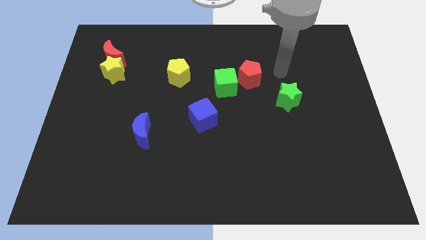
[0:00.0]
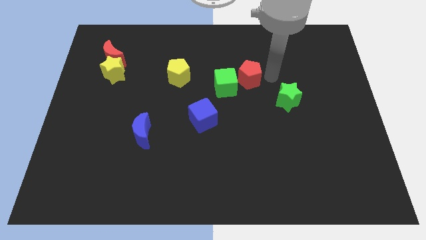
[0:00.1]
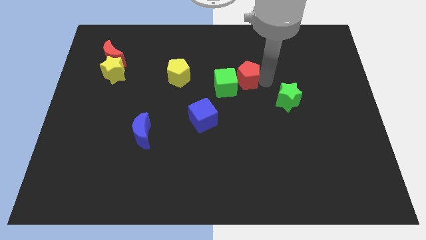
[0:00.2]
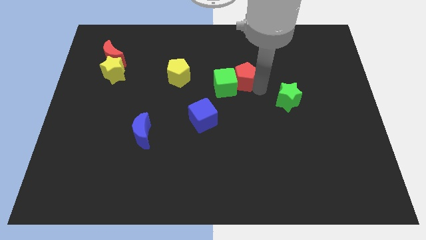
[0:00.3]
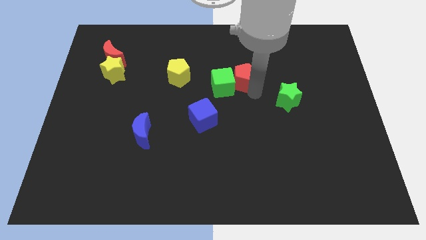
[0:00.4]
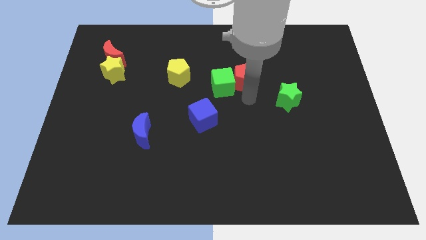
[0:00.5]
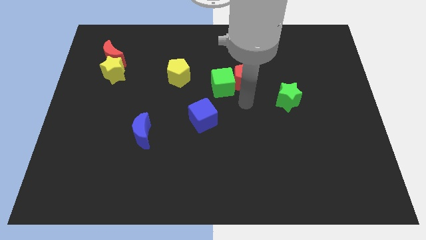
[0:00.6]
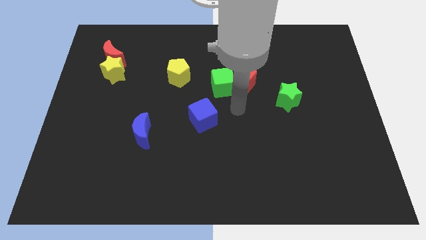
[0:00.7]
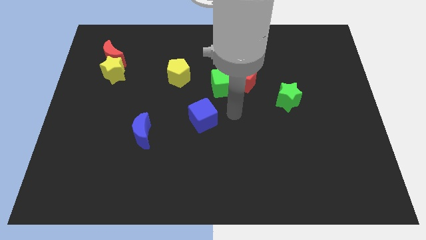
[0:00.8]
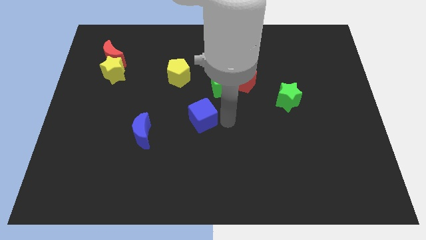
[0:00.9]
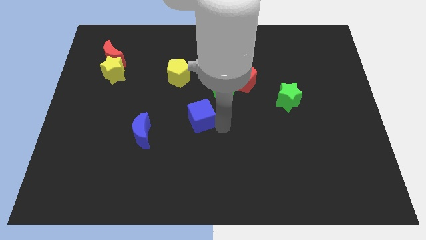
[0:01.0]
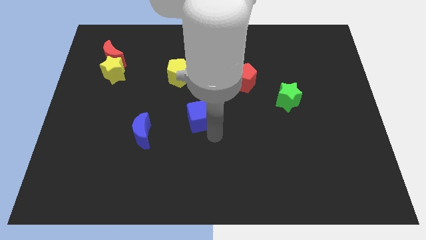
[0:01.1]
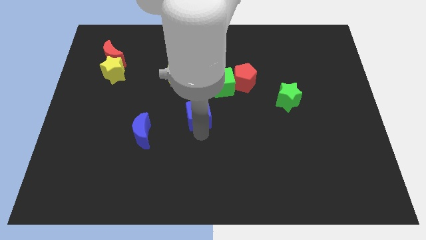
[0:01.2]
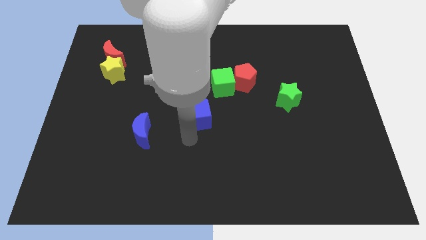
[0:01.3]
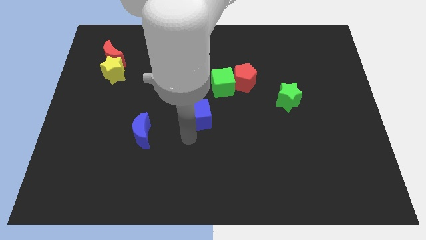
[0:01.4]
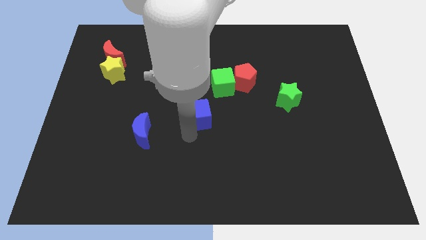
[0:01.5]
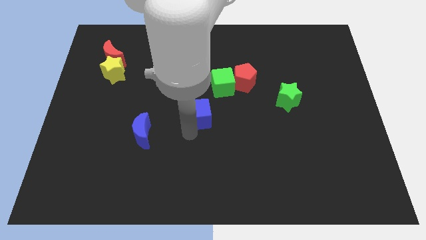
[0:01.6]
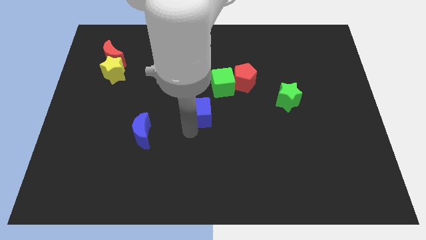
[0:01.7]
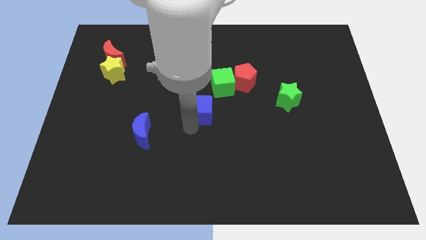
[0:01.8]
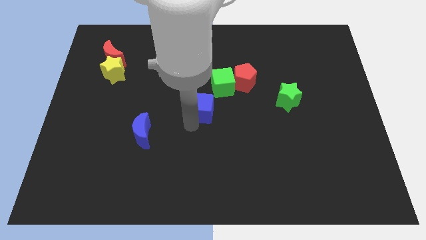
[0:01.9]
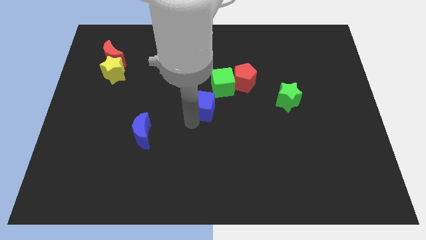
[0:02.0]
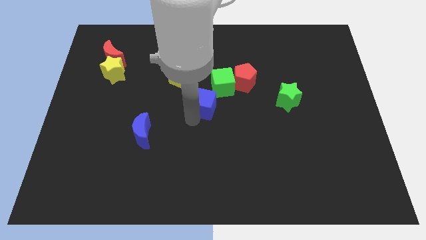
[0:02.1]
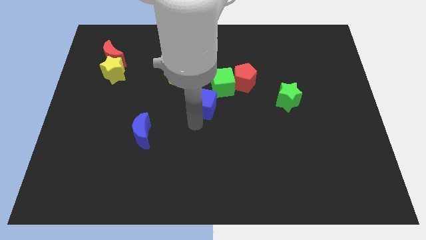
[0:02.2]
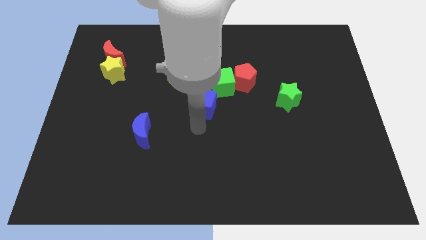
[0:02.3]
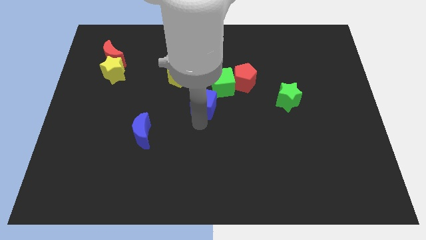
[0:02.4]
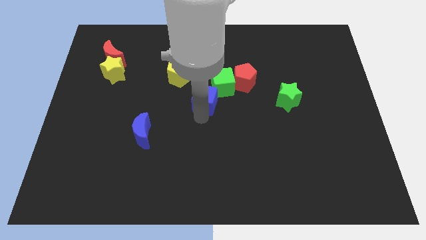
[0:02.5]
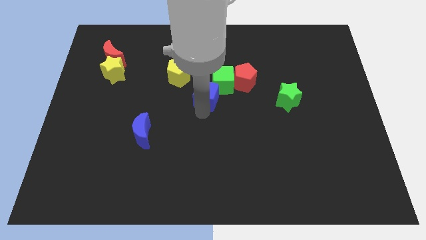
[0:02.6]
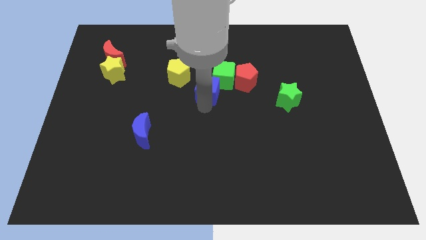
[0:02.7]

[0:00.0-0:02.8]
slightly push the blue cube up

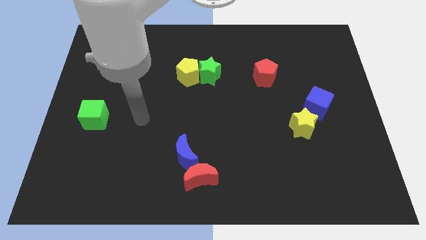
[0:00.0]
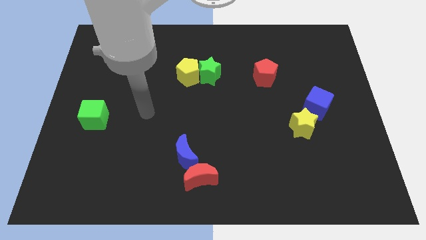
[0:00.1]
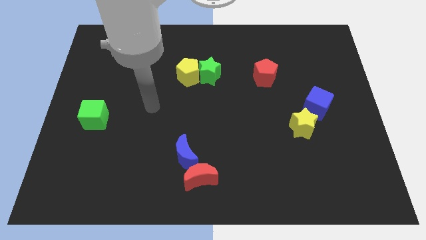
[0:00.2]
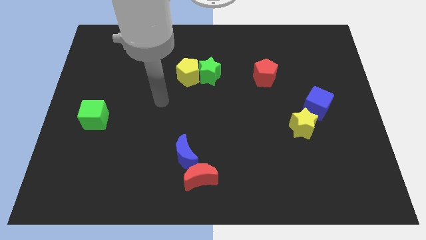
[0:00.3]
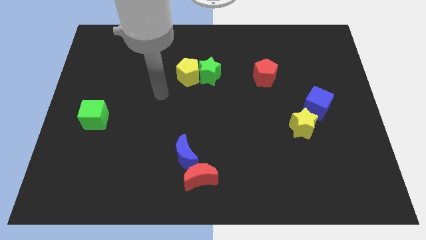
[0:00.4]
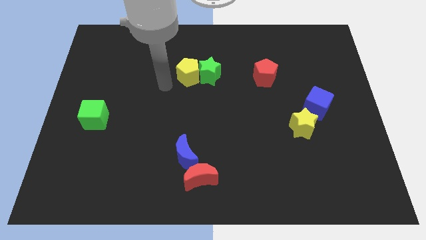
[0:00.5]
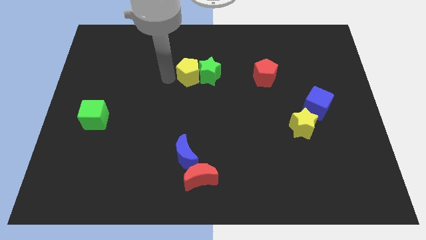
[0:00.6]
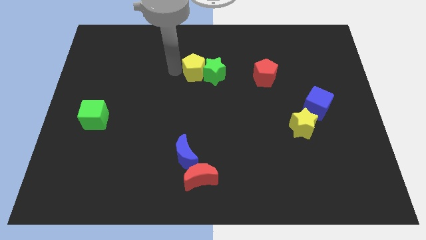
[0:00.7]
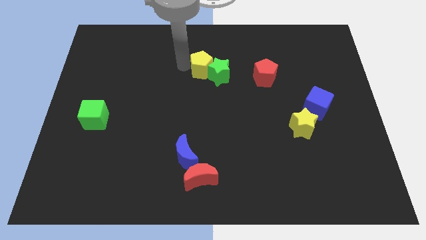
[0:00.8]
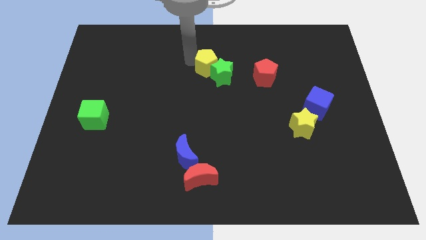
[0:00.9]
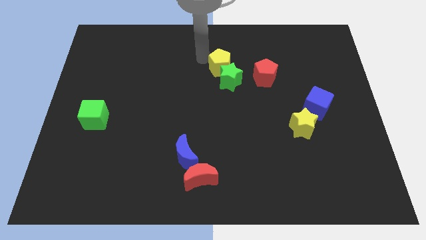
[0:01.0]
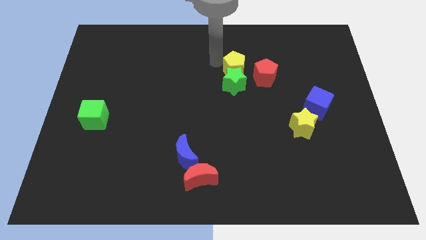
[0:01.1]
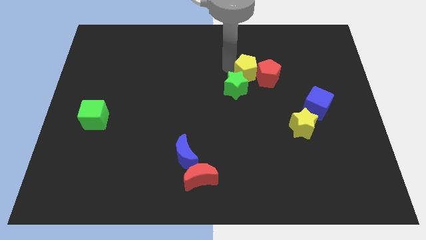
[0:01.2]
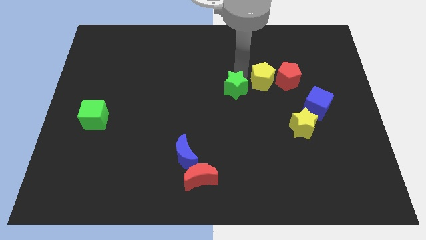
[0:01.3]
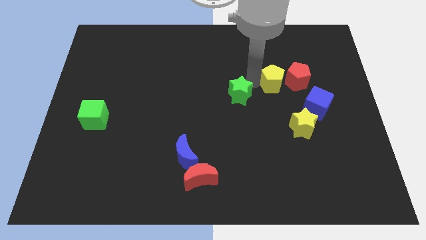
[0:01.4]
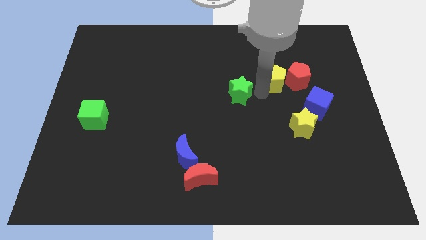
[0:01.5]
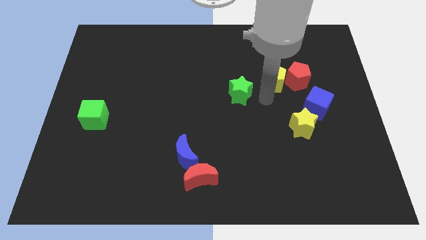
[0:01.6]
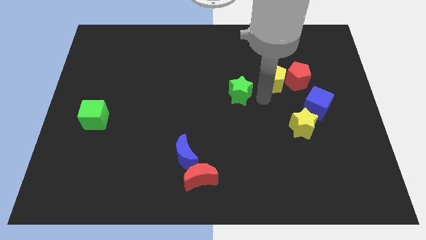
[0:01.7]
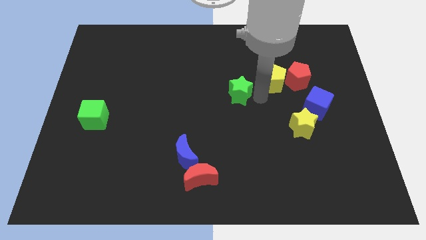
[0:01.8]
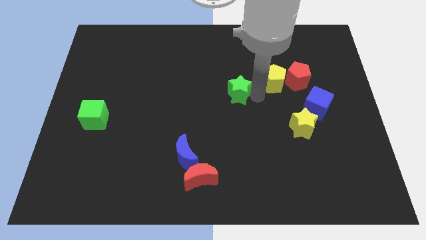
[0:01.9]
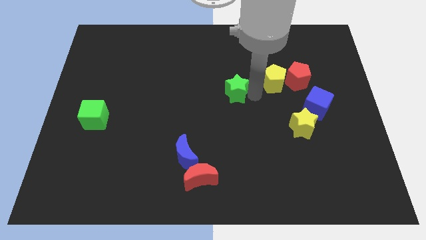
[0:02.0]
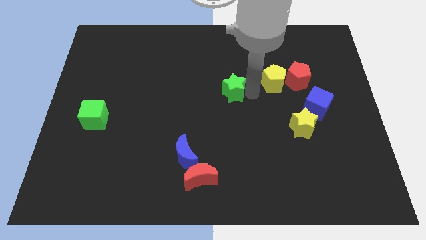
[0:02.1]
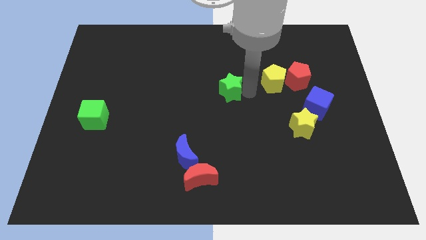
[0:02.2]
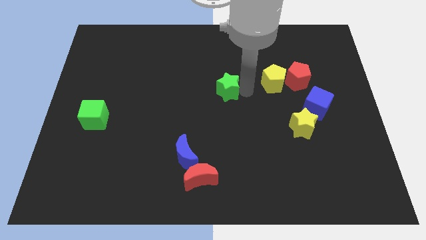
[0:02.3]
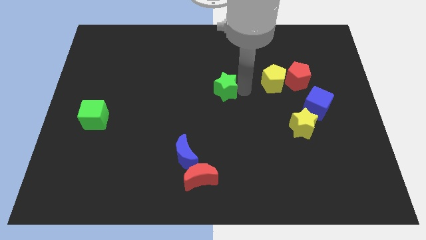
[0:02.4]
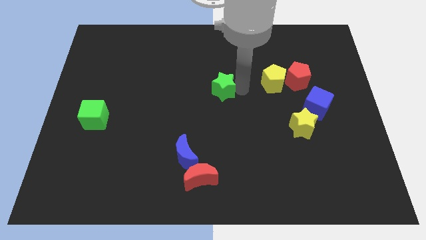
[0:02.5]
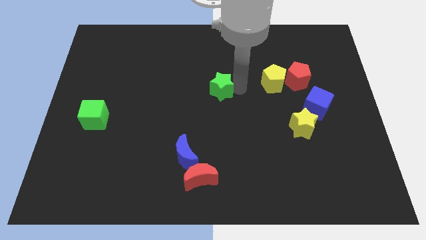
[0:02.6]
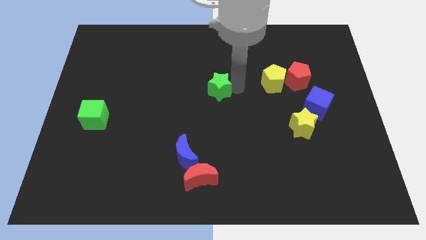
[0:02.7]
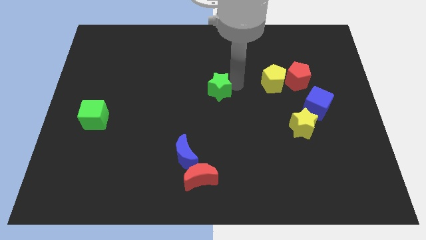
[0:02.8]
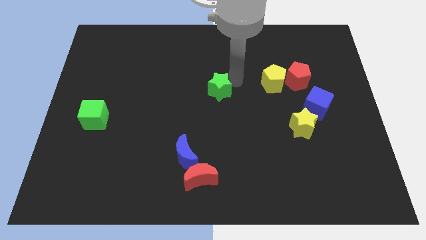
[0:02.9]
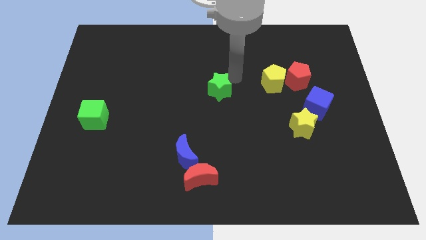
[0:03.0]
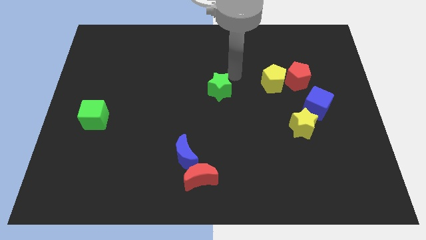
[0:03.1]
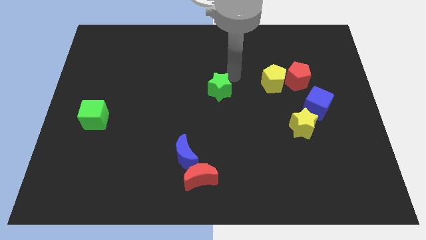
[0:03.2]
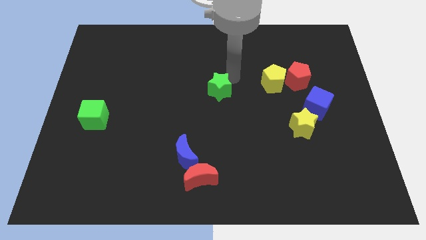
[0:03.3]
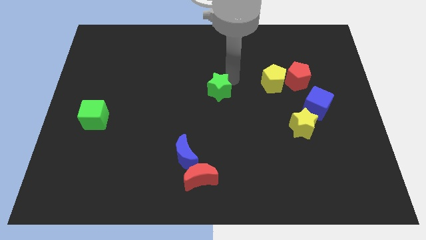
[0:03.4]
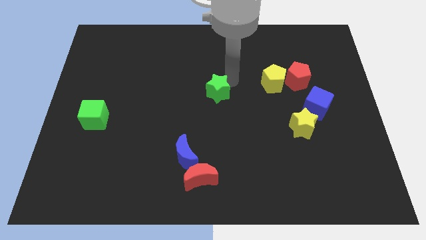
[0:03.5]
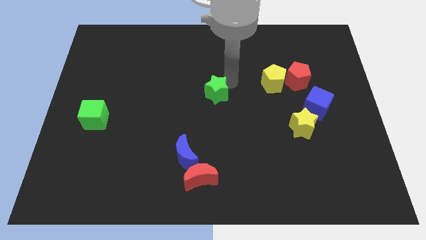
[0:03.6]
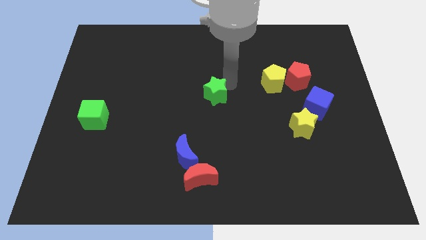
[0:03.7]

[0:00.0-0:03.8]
push the green star a little down

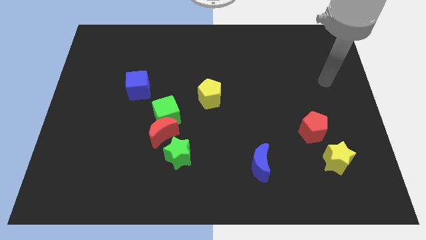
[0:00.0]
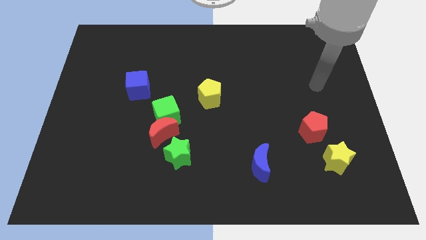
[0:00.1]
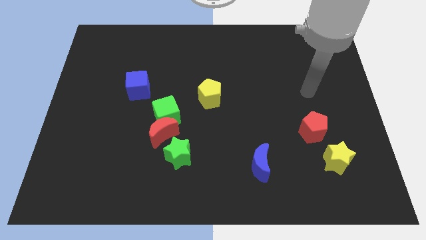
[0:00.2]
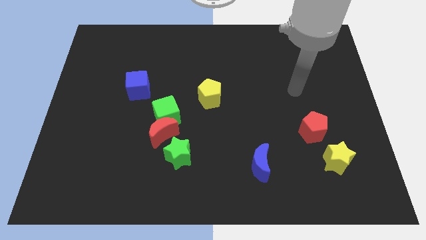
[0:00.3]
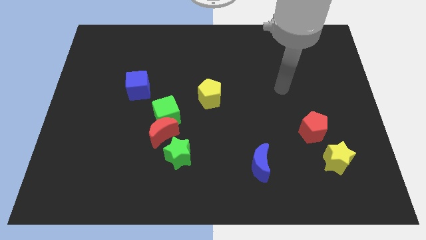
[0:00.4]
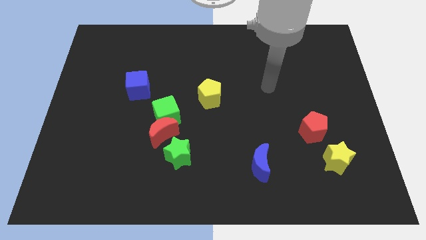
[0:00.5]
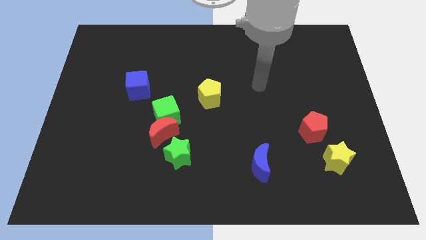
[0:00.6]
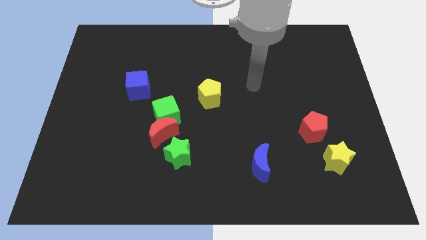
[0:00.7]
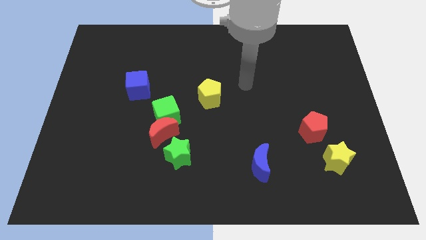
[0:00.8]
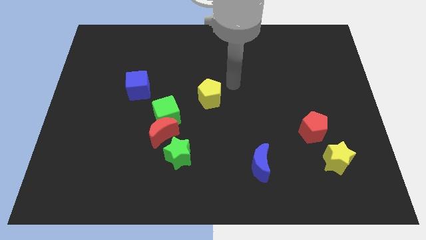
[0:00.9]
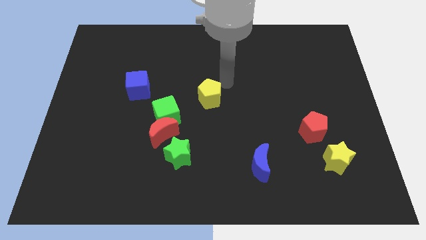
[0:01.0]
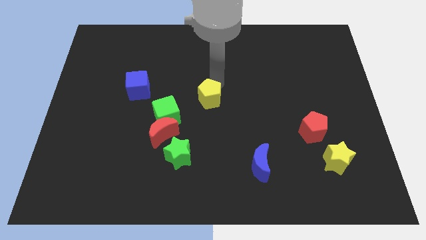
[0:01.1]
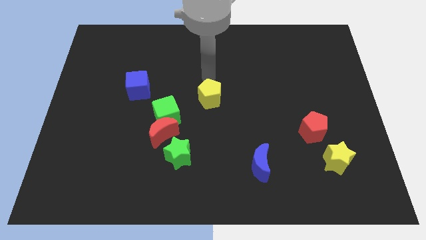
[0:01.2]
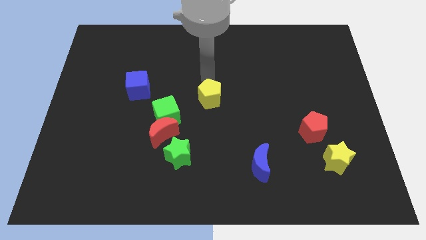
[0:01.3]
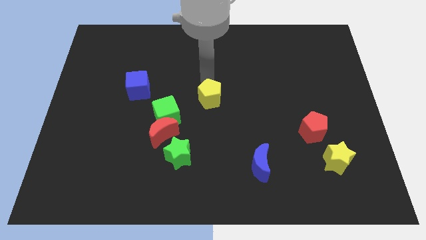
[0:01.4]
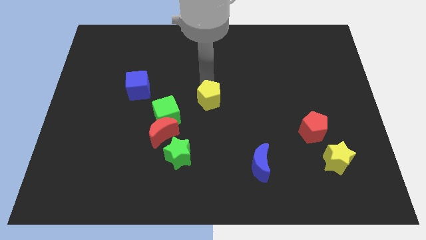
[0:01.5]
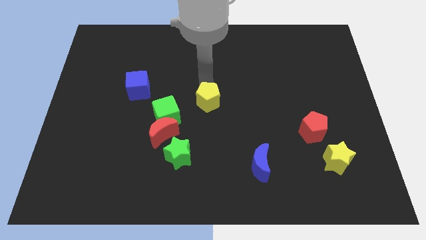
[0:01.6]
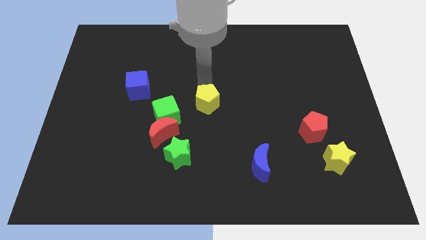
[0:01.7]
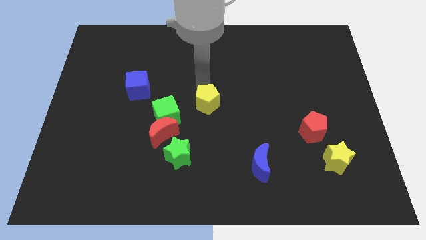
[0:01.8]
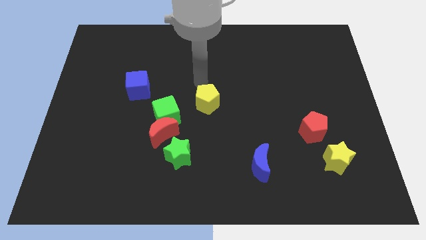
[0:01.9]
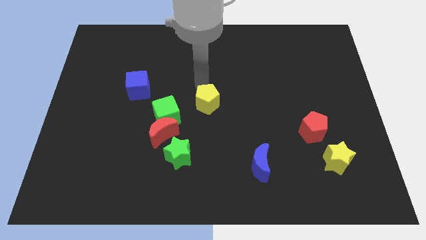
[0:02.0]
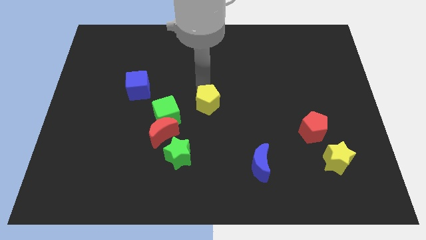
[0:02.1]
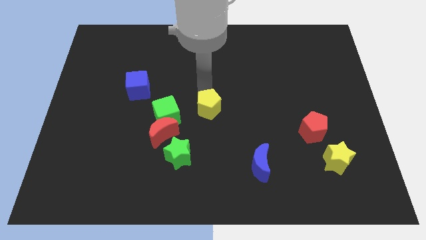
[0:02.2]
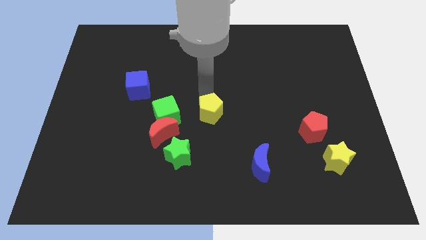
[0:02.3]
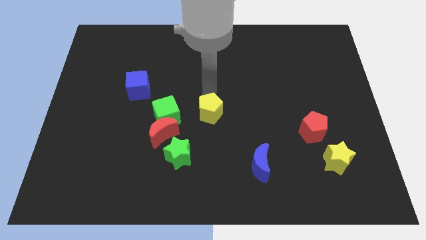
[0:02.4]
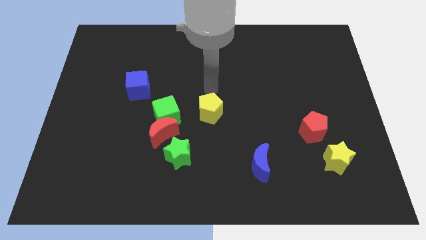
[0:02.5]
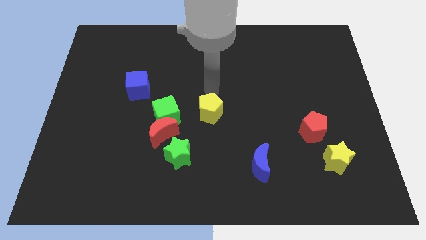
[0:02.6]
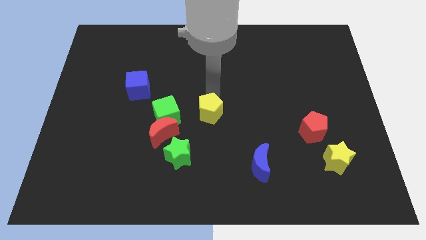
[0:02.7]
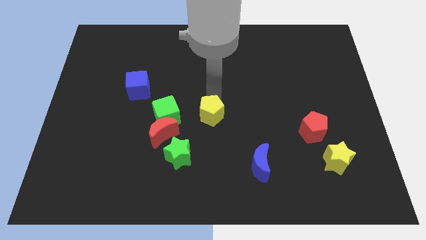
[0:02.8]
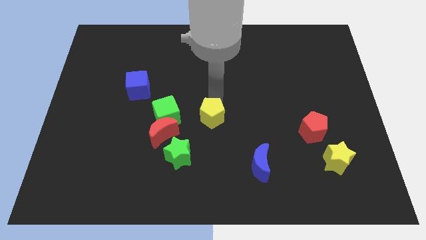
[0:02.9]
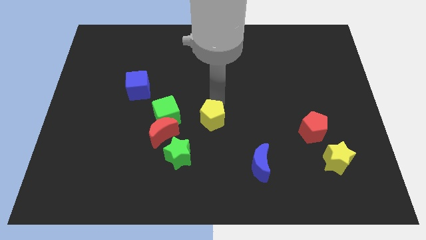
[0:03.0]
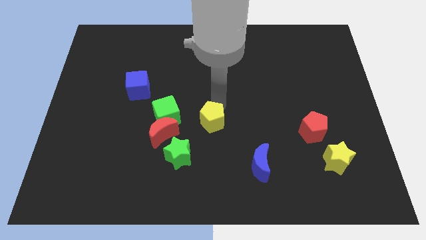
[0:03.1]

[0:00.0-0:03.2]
move the yellow pentagon down a little bit
